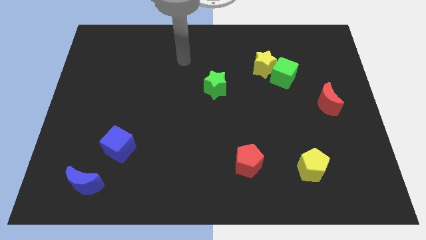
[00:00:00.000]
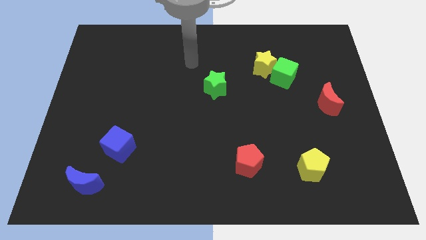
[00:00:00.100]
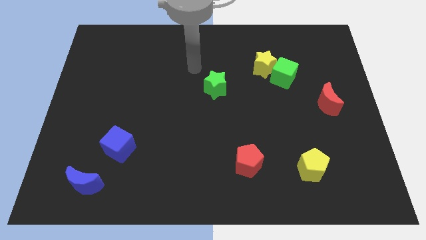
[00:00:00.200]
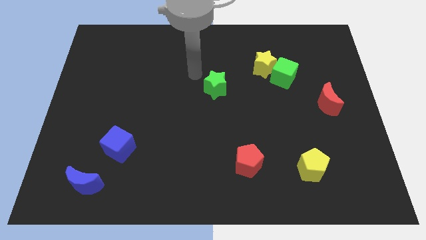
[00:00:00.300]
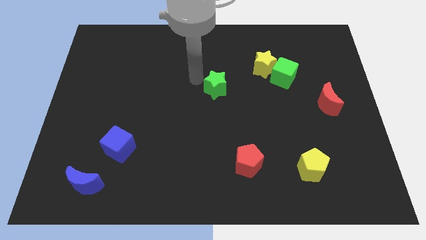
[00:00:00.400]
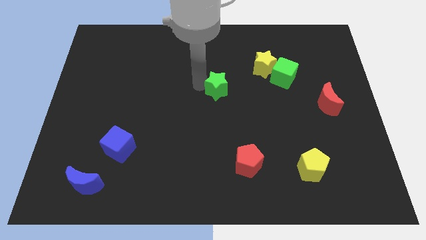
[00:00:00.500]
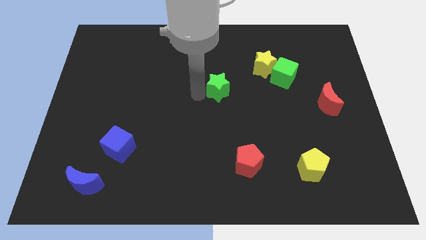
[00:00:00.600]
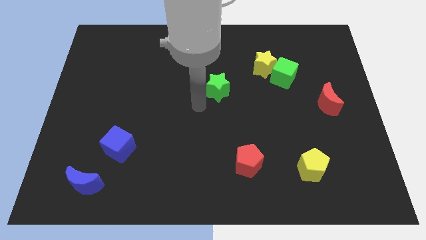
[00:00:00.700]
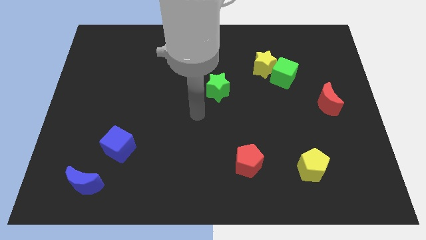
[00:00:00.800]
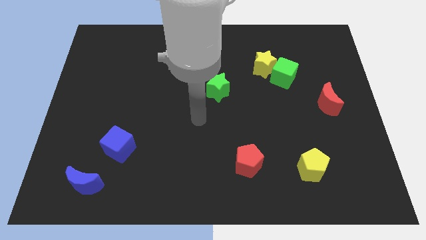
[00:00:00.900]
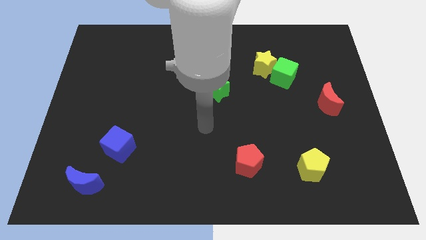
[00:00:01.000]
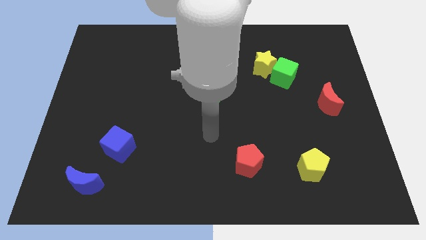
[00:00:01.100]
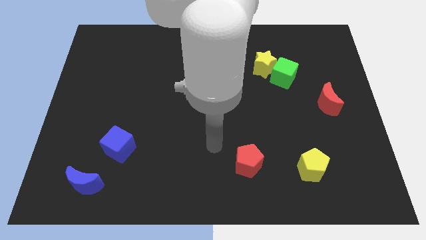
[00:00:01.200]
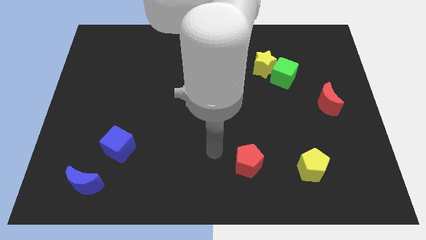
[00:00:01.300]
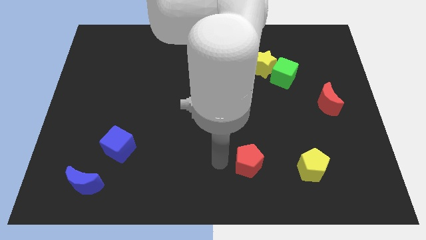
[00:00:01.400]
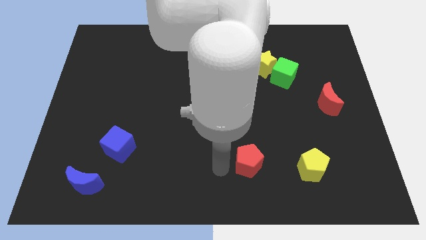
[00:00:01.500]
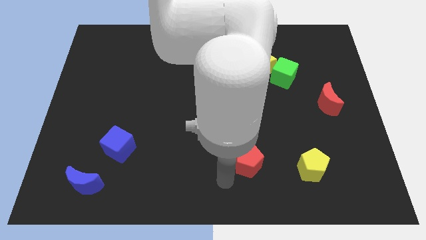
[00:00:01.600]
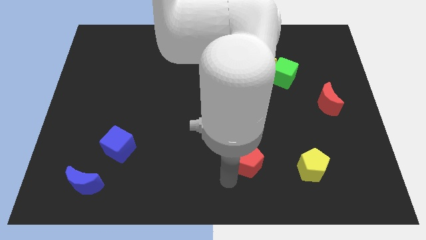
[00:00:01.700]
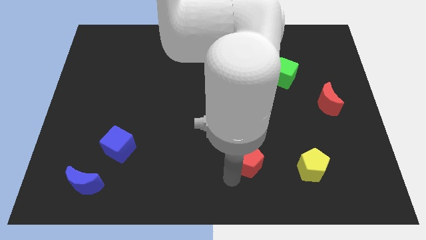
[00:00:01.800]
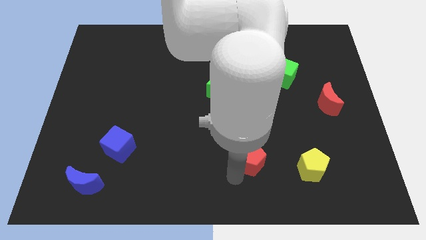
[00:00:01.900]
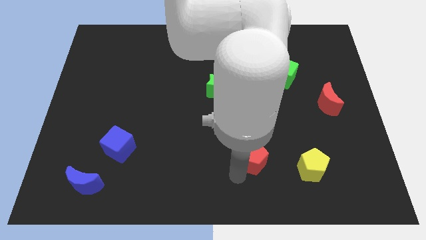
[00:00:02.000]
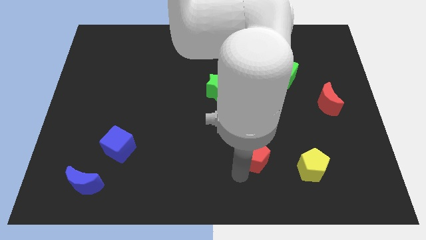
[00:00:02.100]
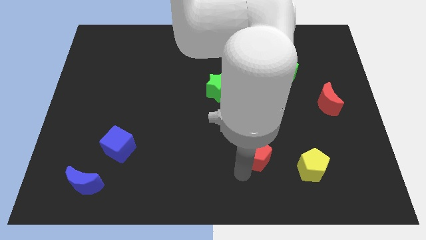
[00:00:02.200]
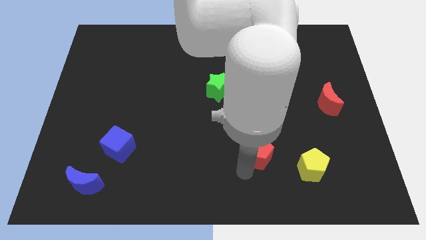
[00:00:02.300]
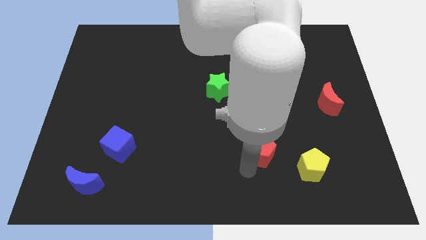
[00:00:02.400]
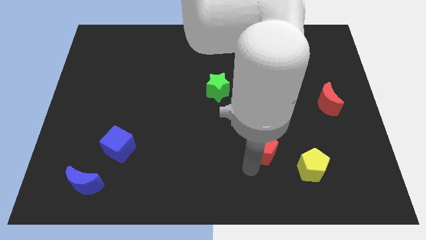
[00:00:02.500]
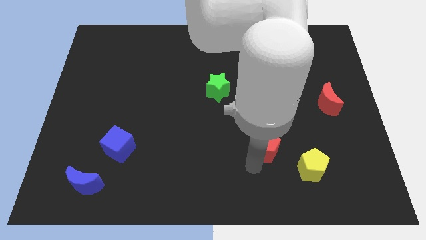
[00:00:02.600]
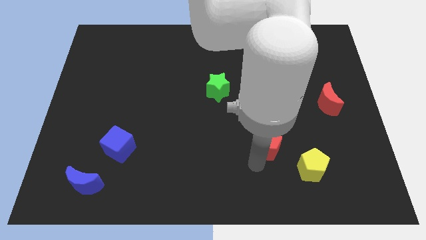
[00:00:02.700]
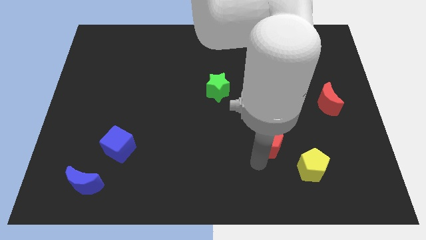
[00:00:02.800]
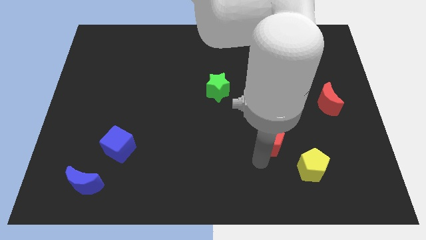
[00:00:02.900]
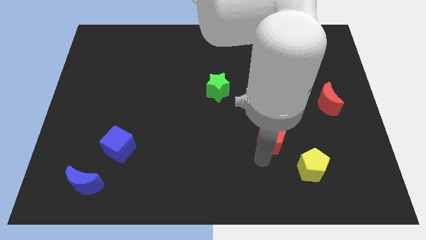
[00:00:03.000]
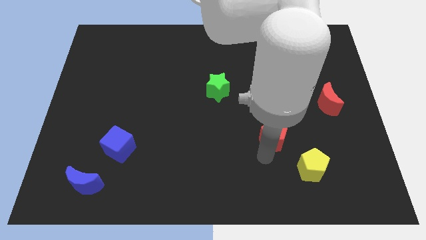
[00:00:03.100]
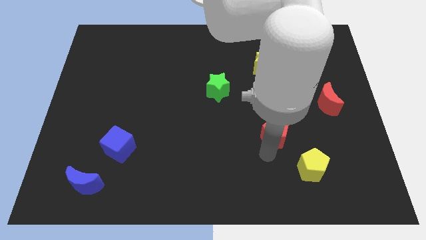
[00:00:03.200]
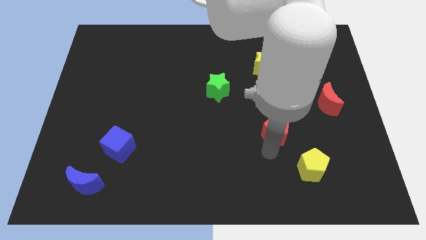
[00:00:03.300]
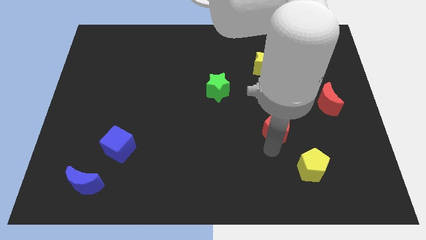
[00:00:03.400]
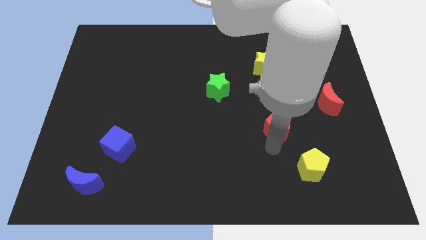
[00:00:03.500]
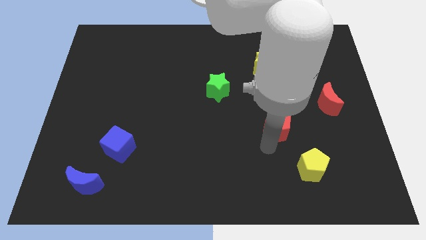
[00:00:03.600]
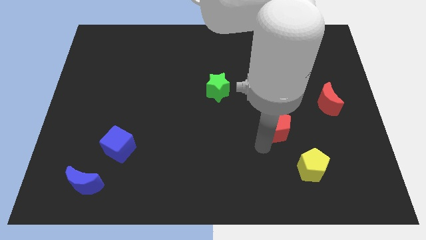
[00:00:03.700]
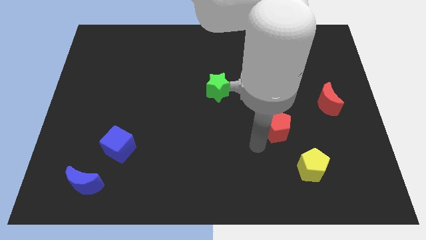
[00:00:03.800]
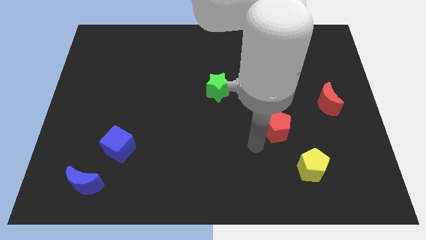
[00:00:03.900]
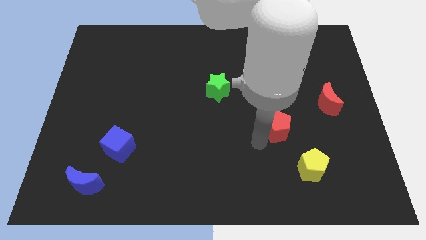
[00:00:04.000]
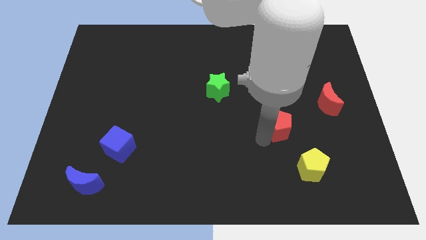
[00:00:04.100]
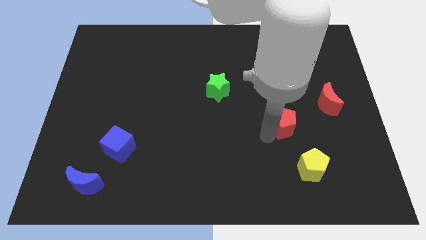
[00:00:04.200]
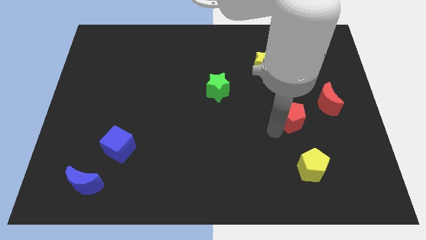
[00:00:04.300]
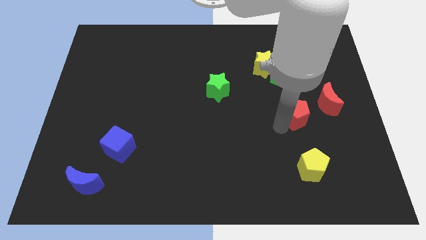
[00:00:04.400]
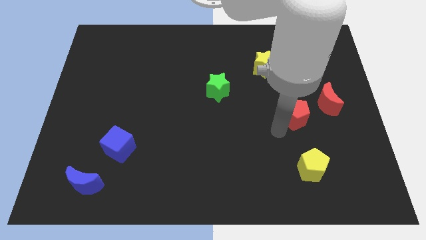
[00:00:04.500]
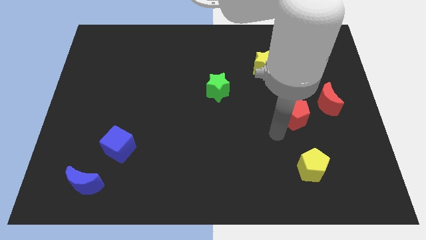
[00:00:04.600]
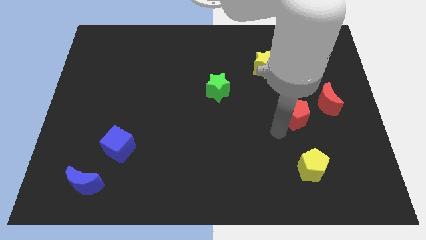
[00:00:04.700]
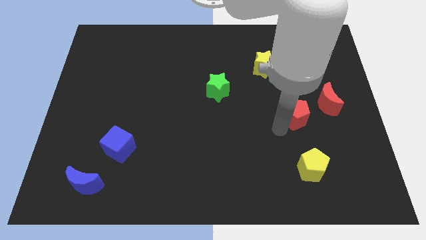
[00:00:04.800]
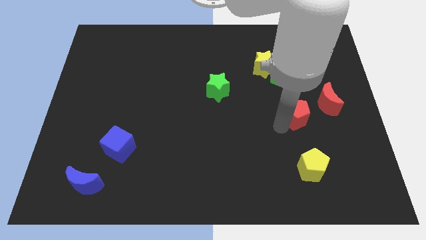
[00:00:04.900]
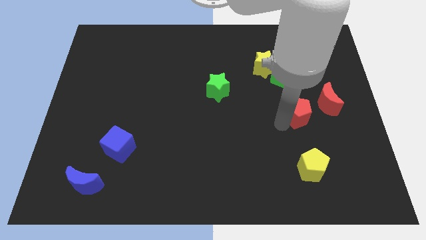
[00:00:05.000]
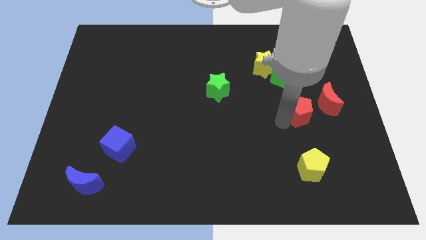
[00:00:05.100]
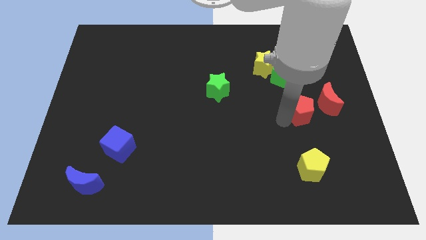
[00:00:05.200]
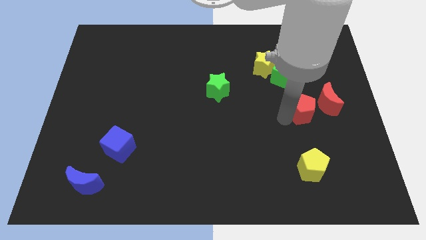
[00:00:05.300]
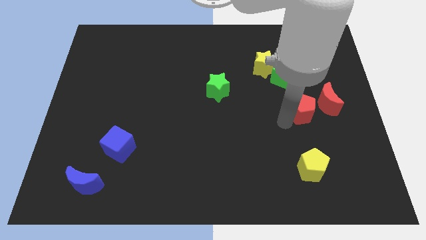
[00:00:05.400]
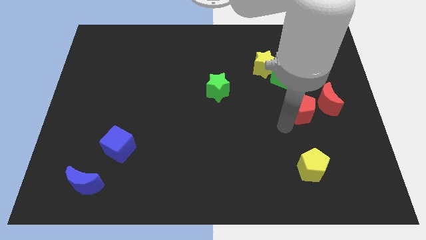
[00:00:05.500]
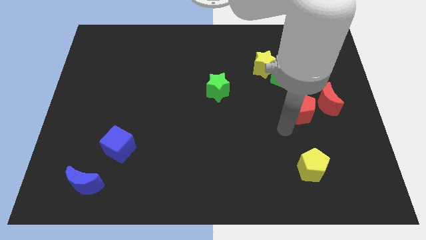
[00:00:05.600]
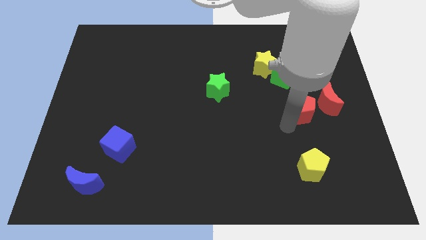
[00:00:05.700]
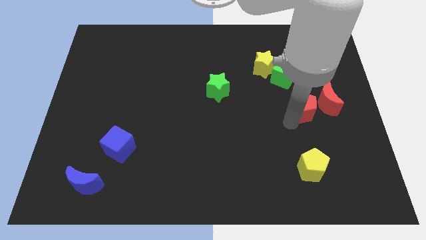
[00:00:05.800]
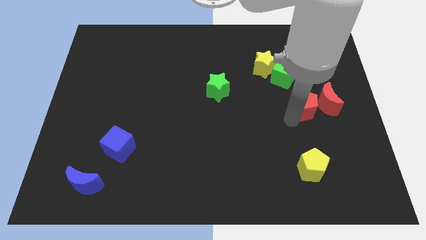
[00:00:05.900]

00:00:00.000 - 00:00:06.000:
slide the red pentagon towards the red moon
